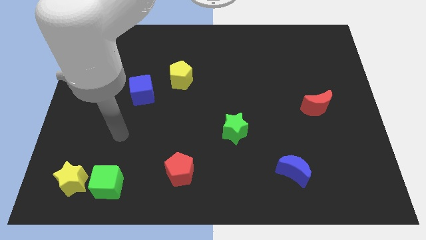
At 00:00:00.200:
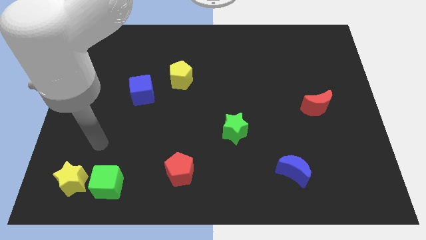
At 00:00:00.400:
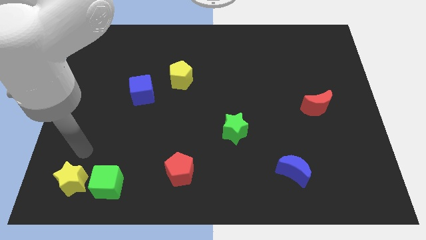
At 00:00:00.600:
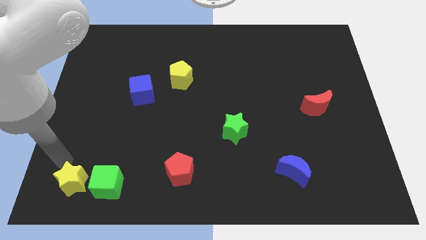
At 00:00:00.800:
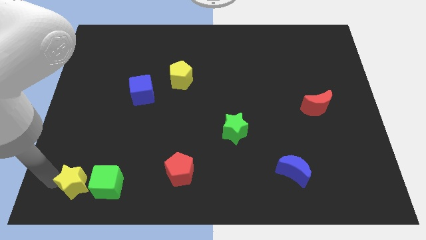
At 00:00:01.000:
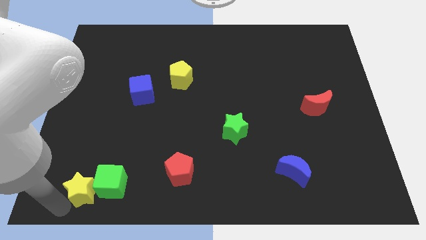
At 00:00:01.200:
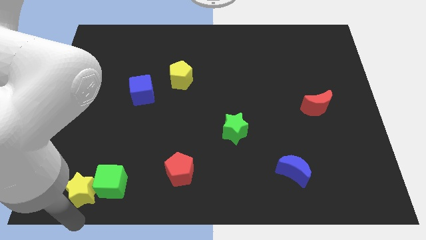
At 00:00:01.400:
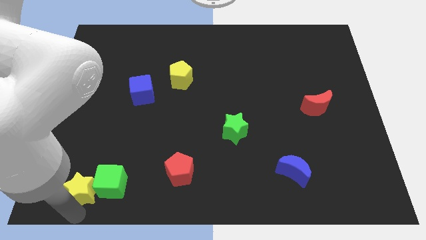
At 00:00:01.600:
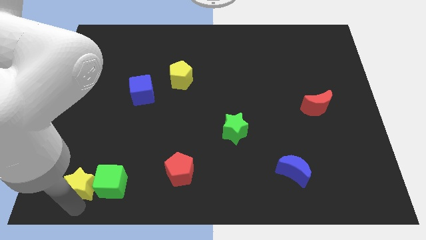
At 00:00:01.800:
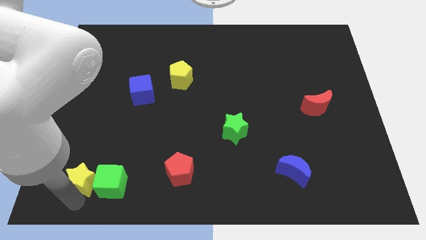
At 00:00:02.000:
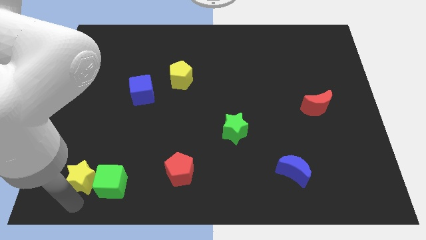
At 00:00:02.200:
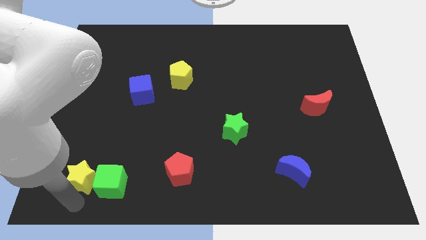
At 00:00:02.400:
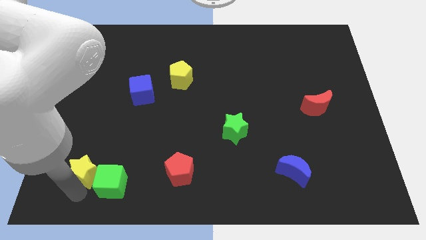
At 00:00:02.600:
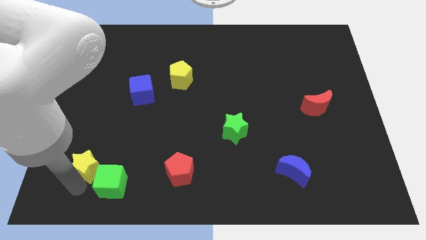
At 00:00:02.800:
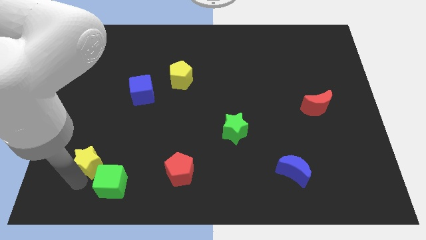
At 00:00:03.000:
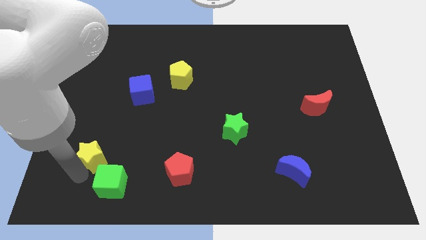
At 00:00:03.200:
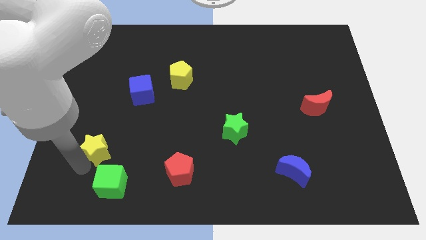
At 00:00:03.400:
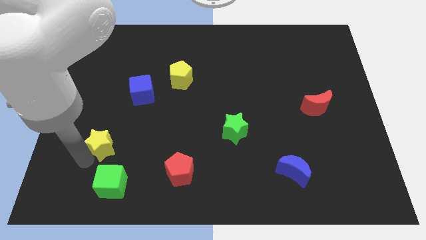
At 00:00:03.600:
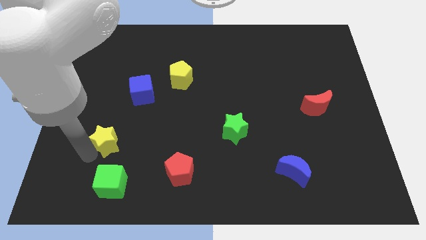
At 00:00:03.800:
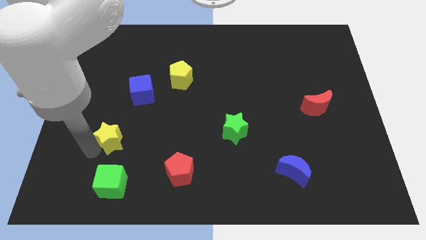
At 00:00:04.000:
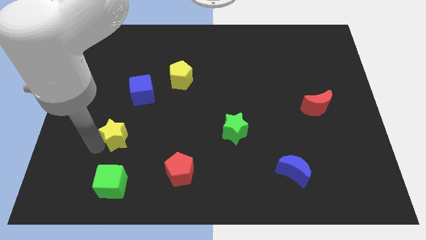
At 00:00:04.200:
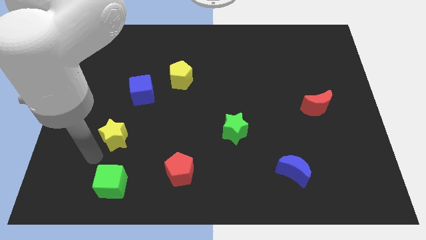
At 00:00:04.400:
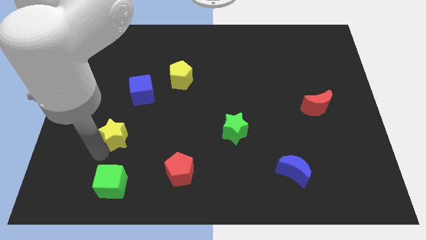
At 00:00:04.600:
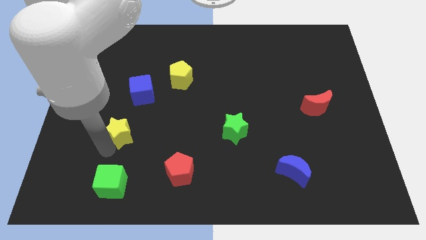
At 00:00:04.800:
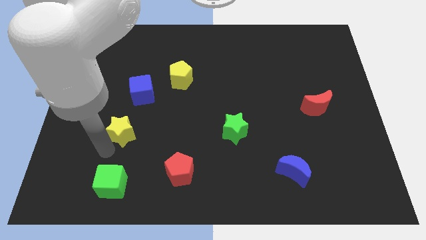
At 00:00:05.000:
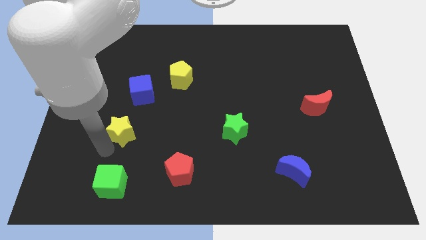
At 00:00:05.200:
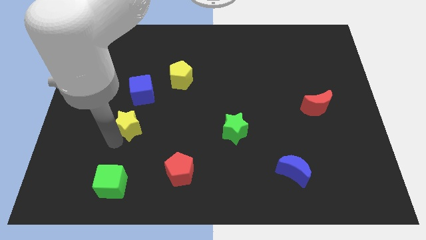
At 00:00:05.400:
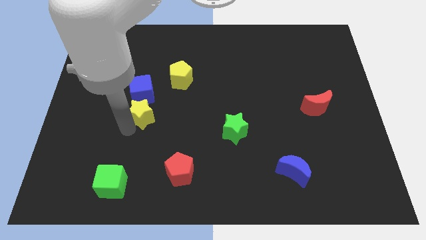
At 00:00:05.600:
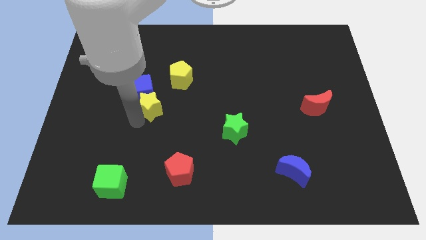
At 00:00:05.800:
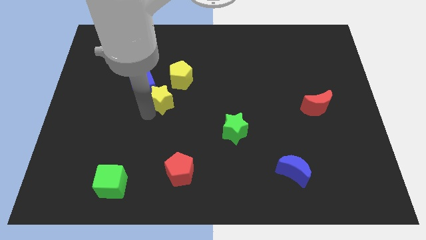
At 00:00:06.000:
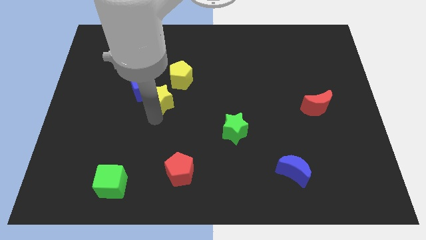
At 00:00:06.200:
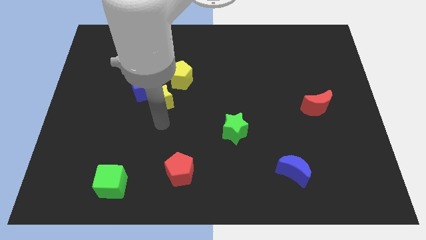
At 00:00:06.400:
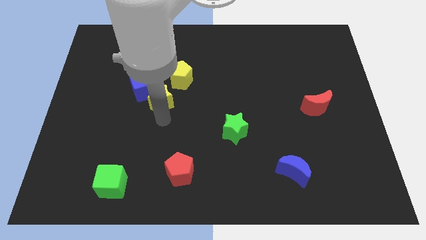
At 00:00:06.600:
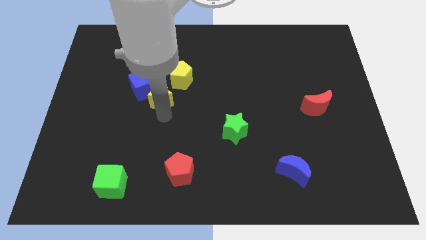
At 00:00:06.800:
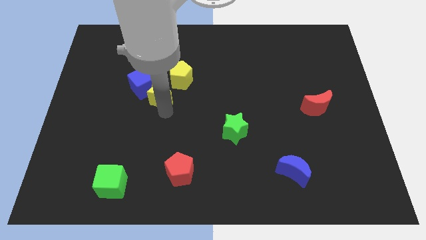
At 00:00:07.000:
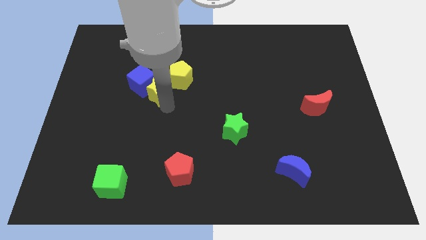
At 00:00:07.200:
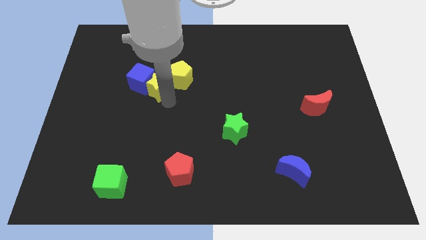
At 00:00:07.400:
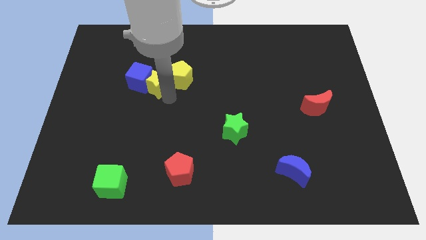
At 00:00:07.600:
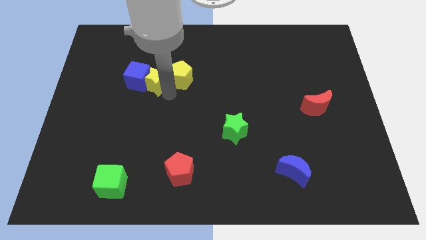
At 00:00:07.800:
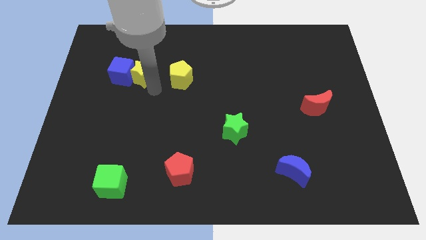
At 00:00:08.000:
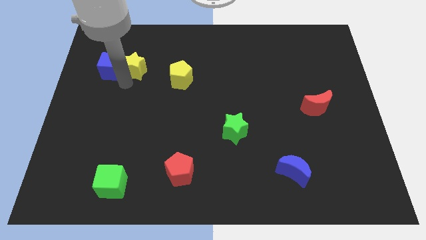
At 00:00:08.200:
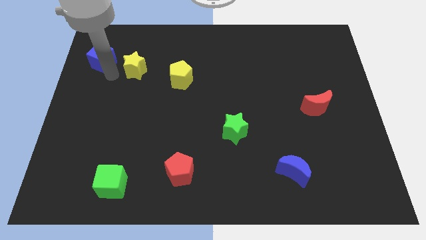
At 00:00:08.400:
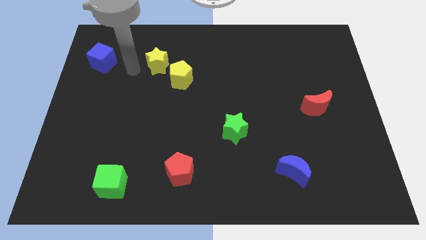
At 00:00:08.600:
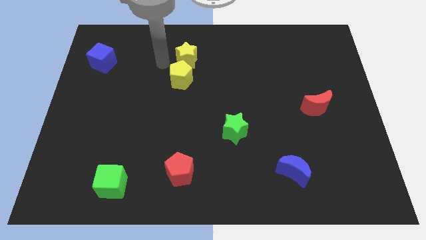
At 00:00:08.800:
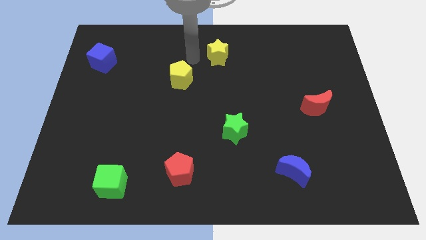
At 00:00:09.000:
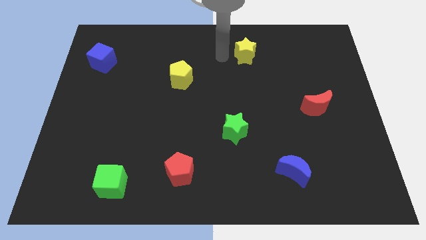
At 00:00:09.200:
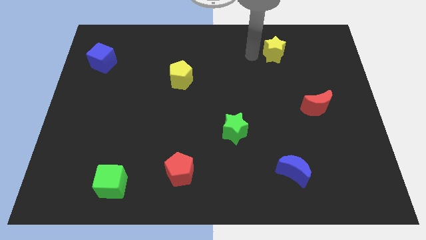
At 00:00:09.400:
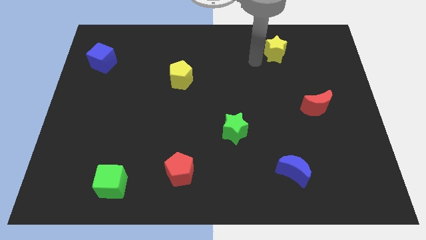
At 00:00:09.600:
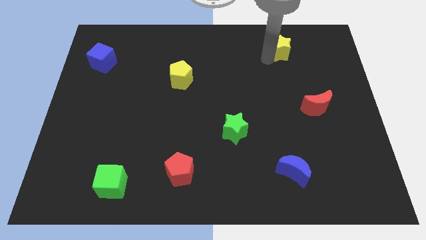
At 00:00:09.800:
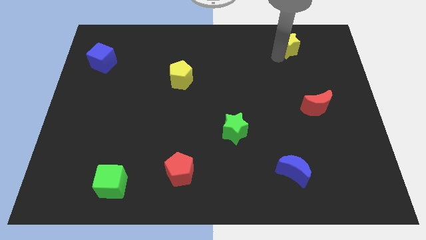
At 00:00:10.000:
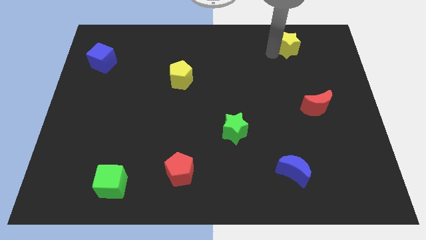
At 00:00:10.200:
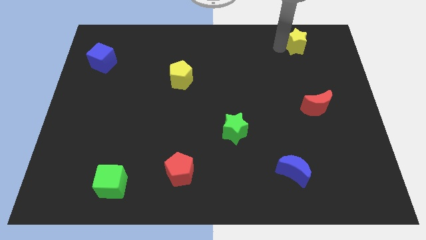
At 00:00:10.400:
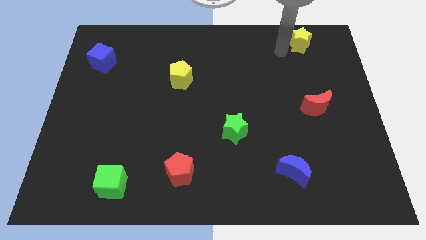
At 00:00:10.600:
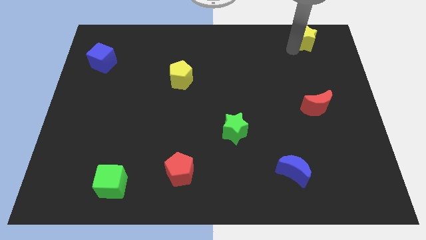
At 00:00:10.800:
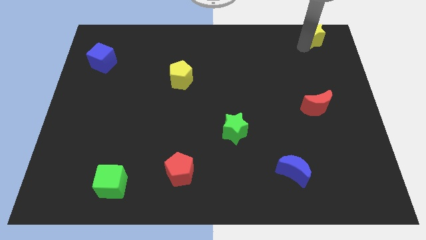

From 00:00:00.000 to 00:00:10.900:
slide the yellow star to the top right corner

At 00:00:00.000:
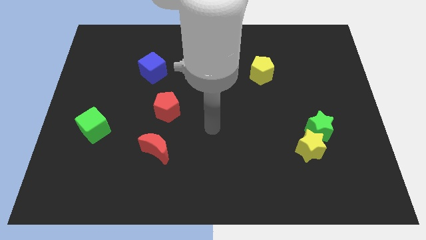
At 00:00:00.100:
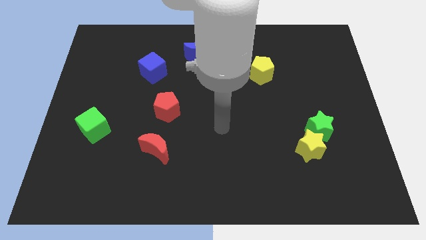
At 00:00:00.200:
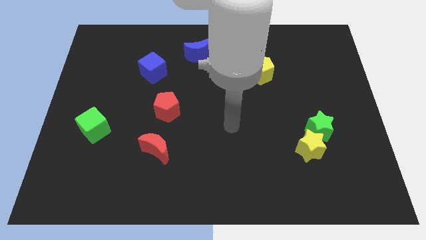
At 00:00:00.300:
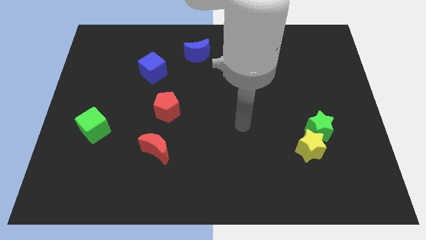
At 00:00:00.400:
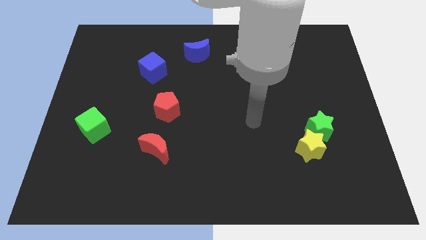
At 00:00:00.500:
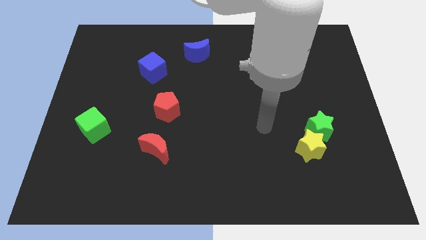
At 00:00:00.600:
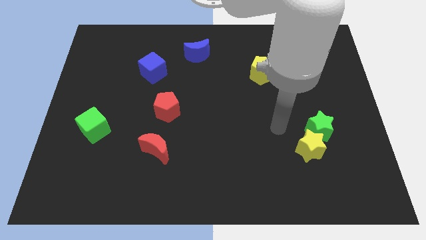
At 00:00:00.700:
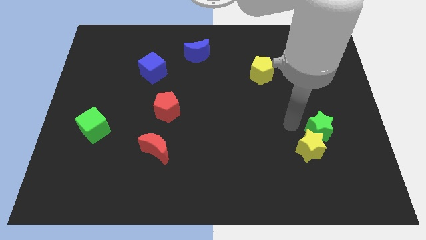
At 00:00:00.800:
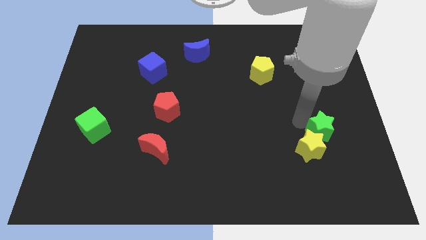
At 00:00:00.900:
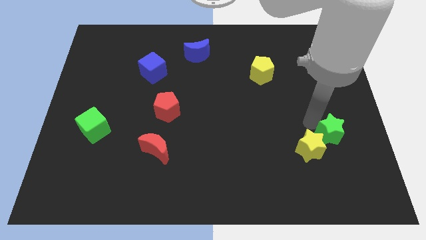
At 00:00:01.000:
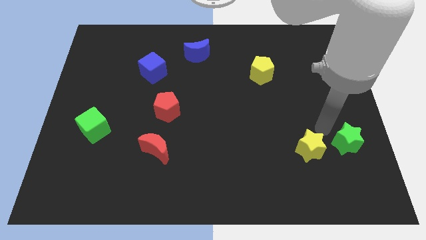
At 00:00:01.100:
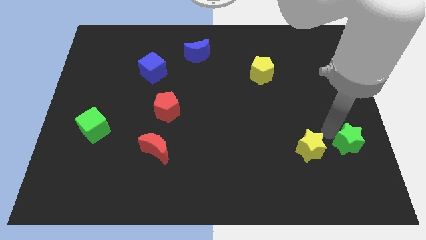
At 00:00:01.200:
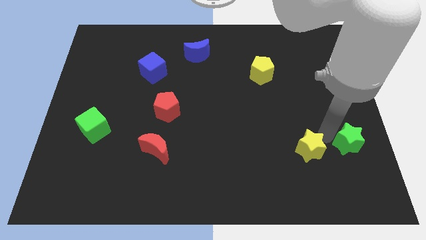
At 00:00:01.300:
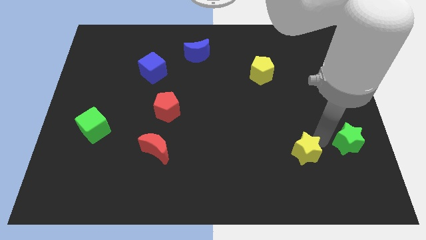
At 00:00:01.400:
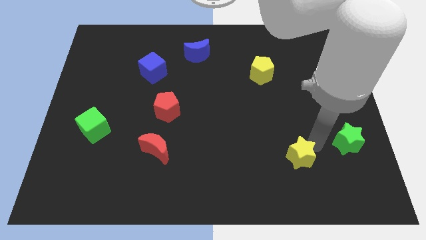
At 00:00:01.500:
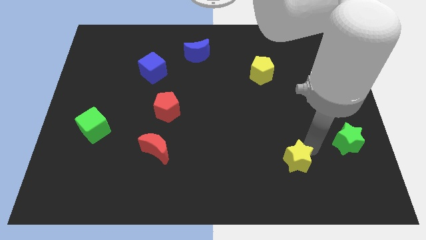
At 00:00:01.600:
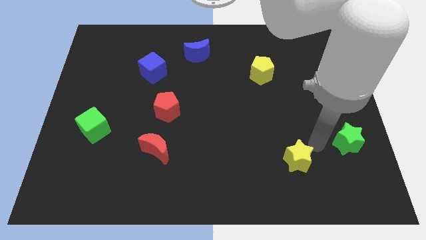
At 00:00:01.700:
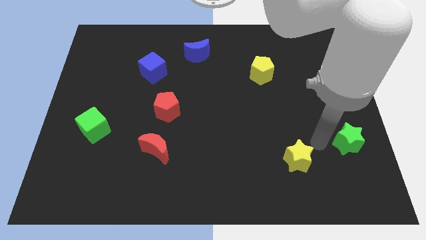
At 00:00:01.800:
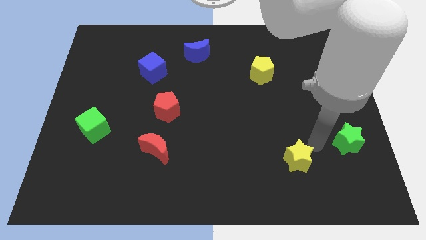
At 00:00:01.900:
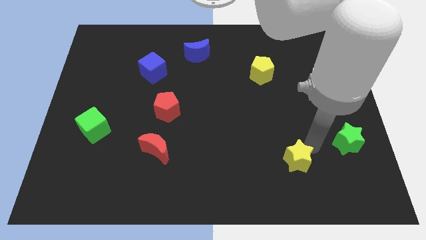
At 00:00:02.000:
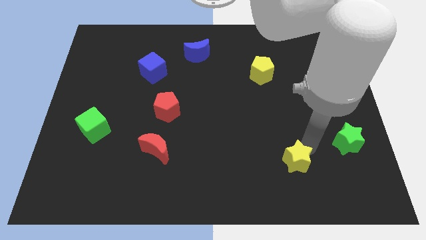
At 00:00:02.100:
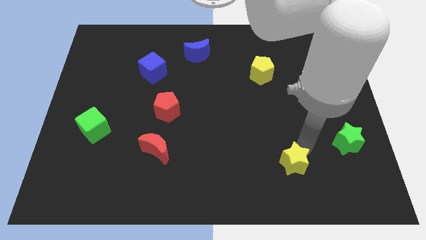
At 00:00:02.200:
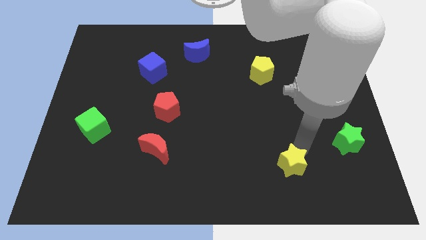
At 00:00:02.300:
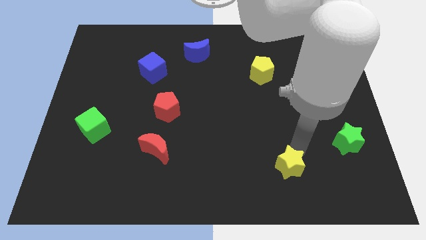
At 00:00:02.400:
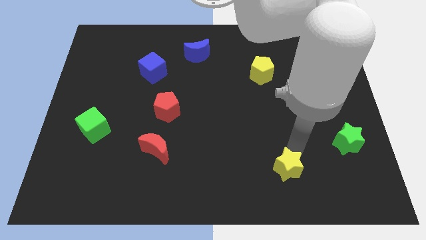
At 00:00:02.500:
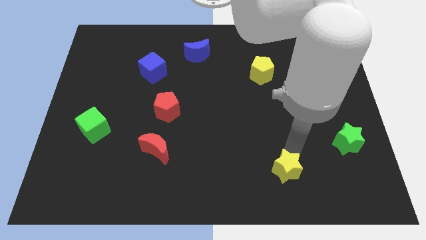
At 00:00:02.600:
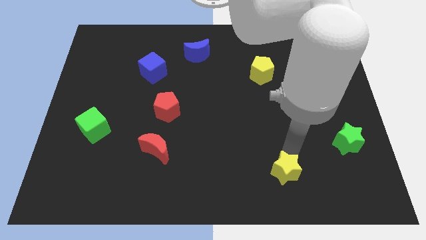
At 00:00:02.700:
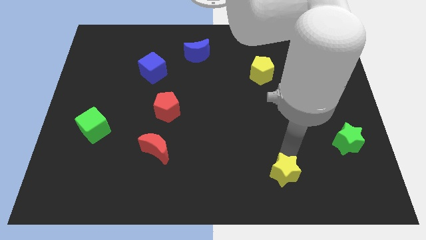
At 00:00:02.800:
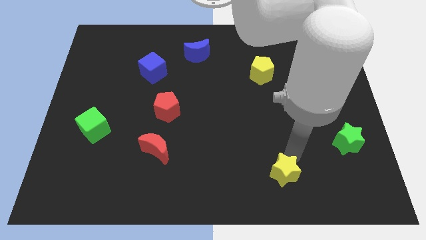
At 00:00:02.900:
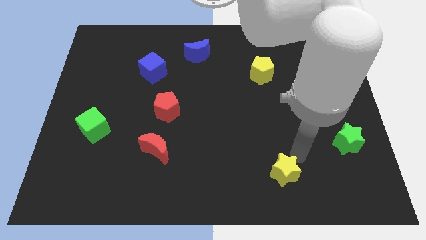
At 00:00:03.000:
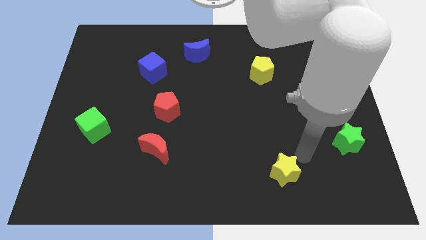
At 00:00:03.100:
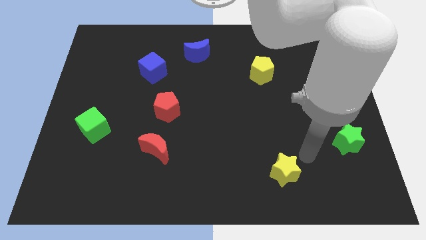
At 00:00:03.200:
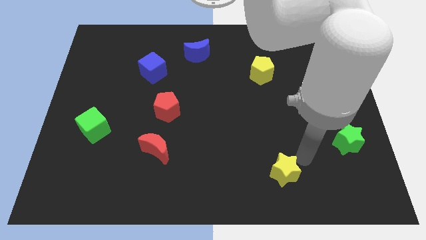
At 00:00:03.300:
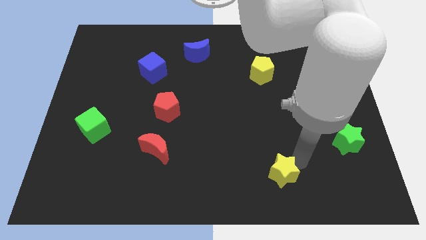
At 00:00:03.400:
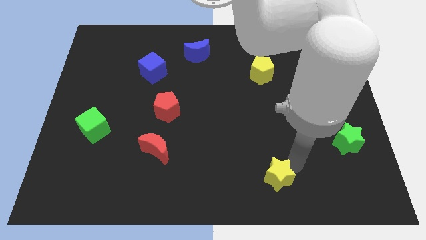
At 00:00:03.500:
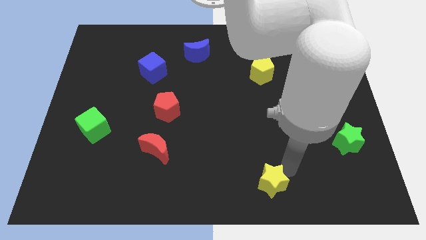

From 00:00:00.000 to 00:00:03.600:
push the yellow star to the bottom
